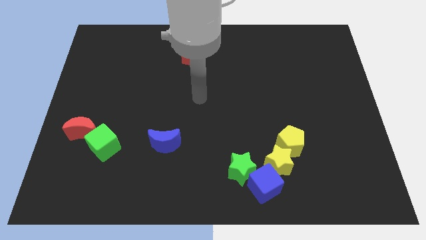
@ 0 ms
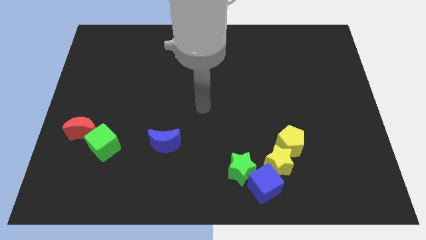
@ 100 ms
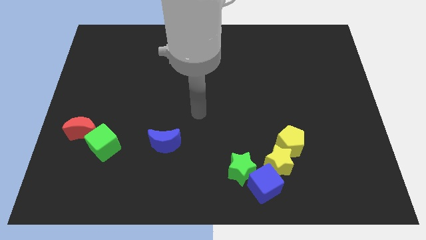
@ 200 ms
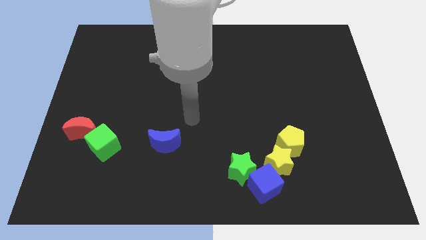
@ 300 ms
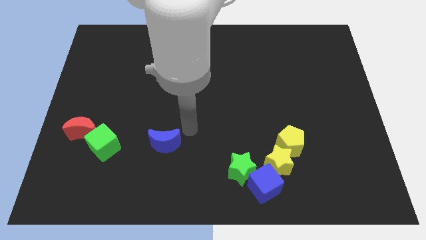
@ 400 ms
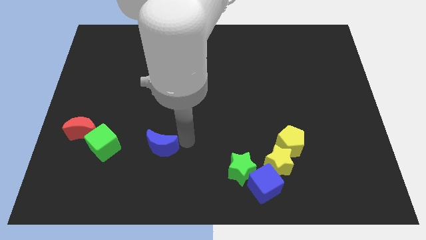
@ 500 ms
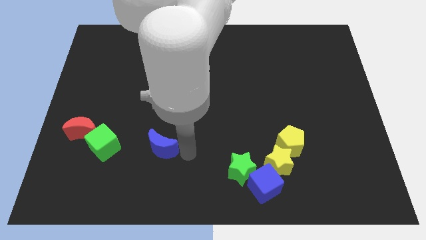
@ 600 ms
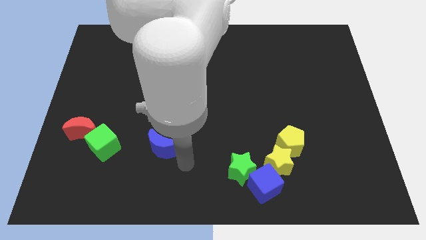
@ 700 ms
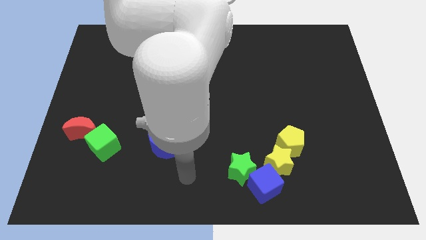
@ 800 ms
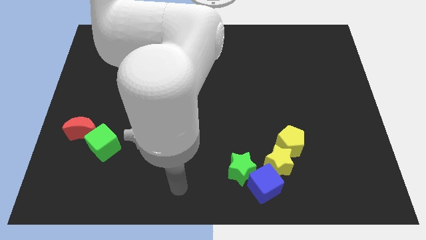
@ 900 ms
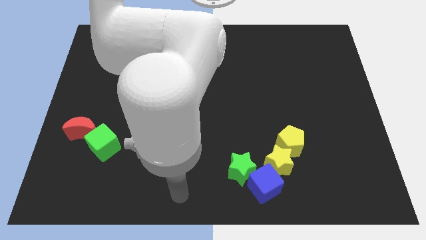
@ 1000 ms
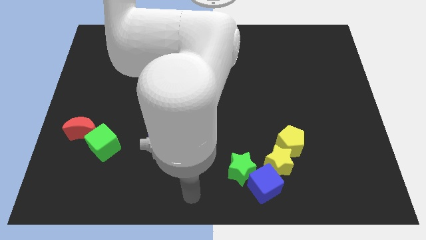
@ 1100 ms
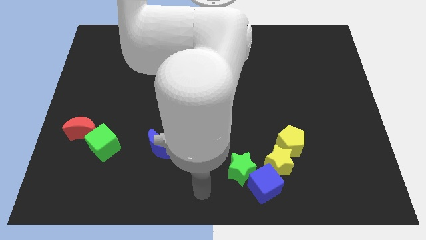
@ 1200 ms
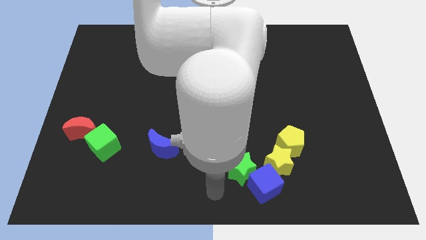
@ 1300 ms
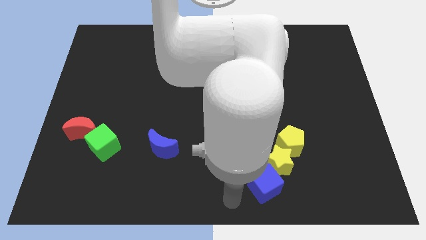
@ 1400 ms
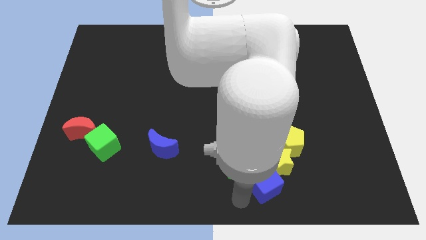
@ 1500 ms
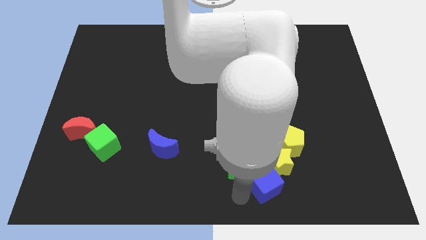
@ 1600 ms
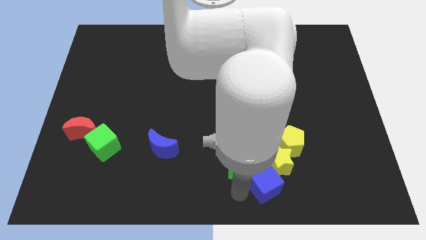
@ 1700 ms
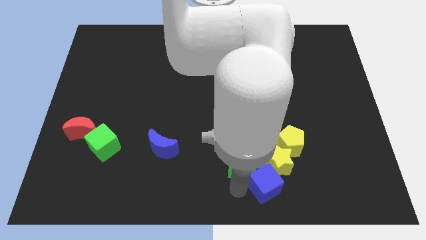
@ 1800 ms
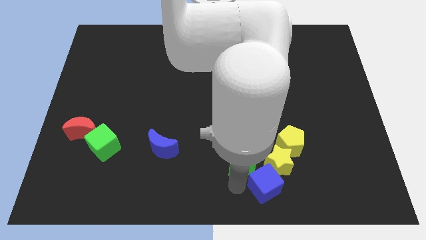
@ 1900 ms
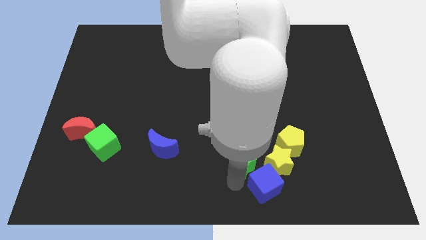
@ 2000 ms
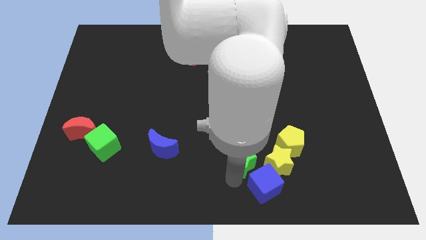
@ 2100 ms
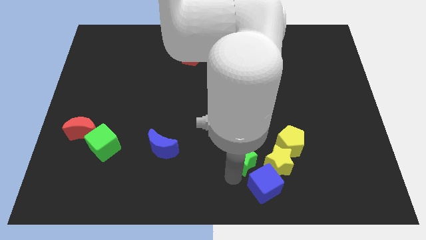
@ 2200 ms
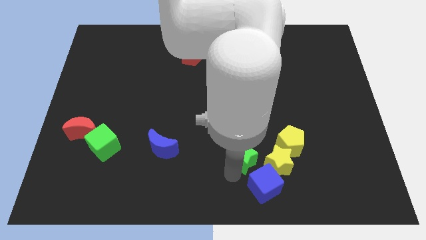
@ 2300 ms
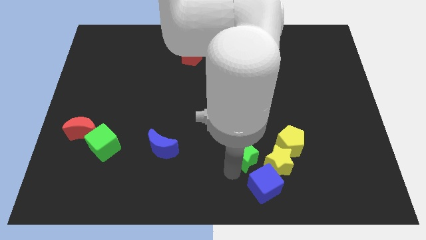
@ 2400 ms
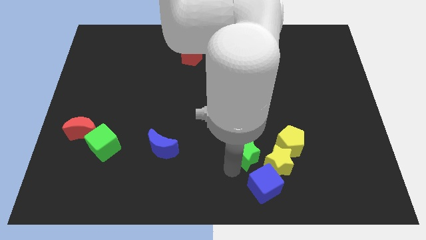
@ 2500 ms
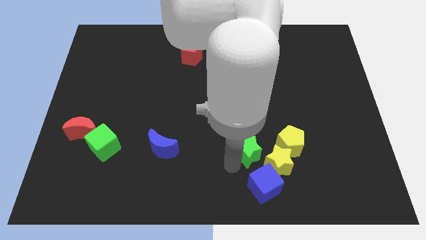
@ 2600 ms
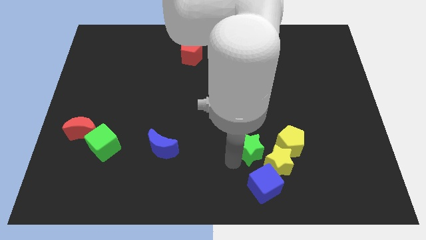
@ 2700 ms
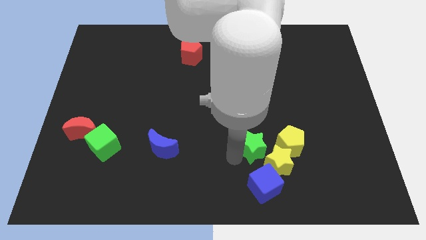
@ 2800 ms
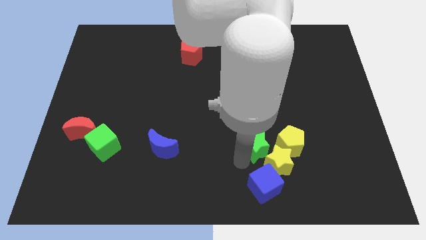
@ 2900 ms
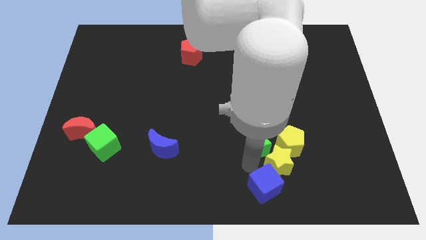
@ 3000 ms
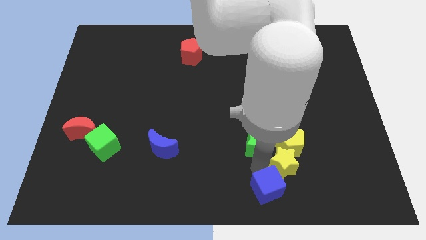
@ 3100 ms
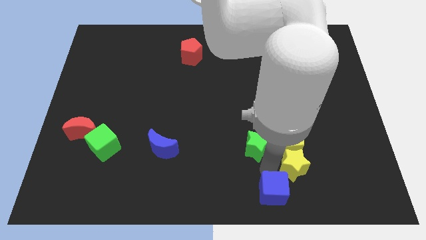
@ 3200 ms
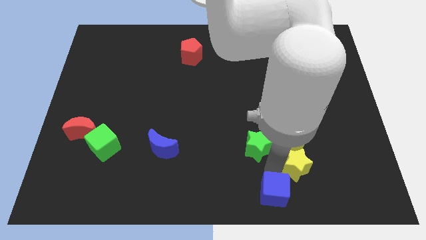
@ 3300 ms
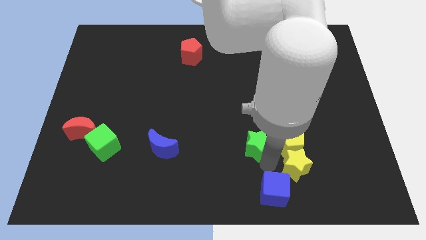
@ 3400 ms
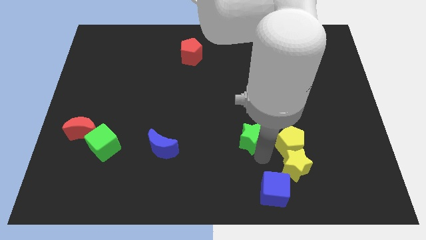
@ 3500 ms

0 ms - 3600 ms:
push the green star a little bit upwards

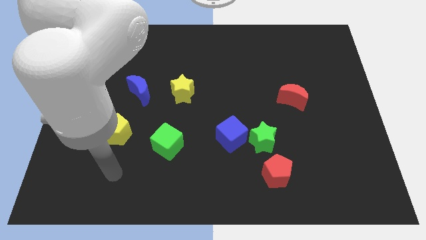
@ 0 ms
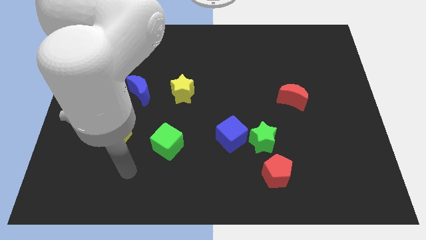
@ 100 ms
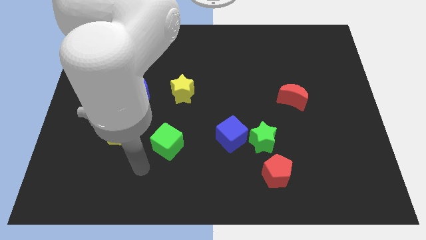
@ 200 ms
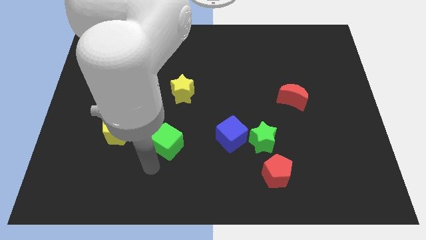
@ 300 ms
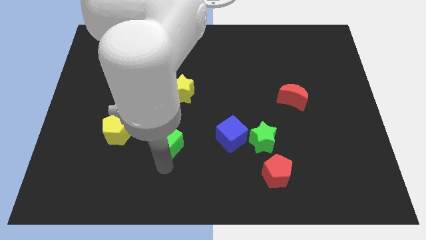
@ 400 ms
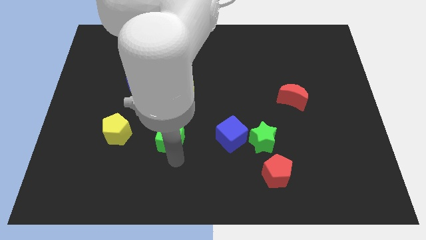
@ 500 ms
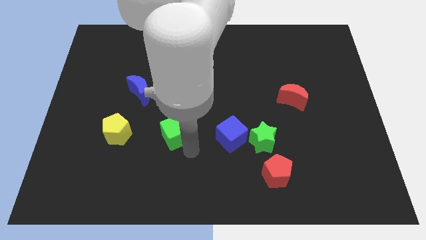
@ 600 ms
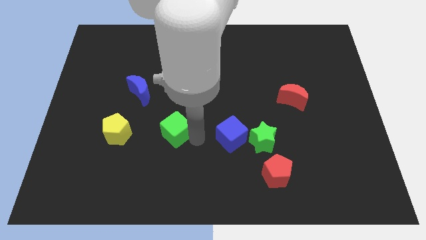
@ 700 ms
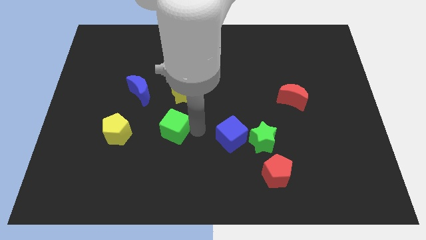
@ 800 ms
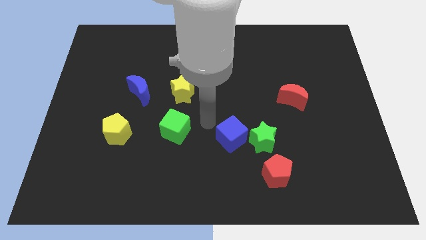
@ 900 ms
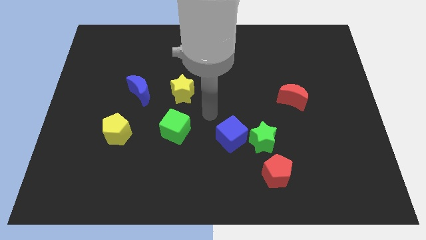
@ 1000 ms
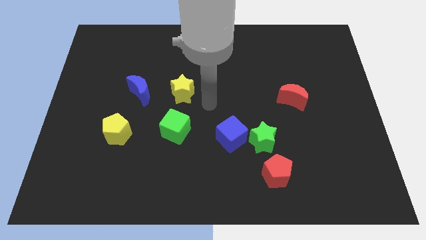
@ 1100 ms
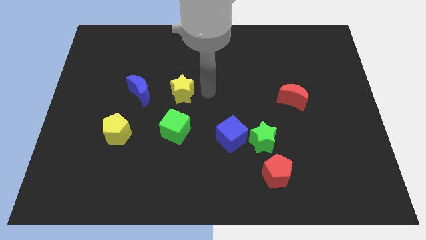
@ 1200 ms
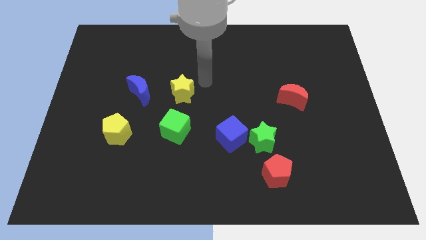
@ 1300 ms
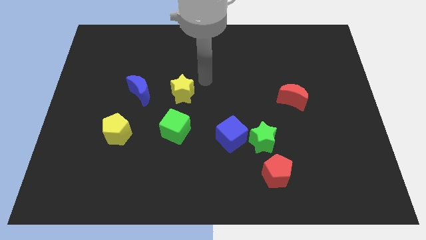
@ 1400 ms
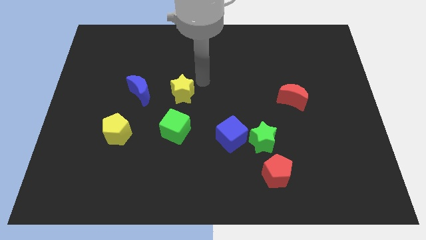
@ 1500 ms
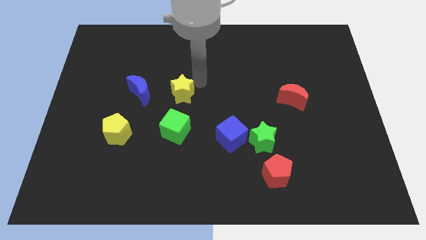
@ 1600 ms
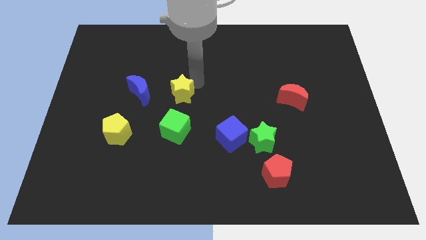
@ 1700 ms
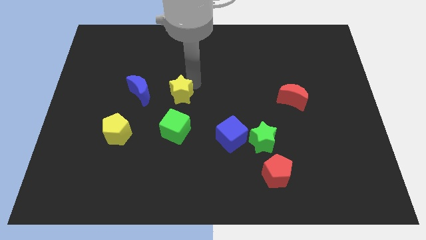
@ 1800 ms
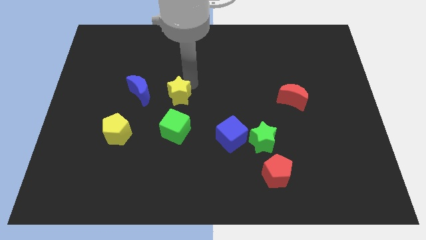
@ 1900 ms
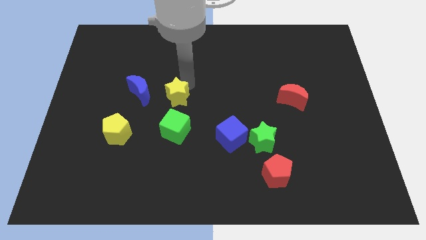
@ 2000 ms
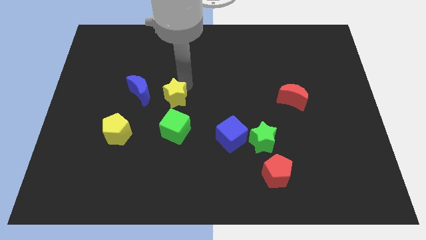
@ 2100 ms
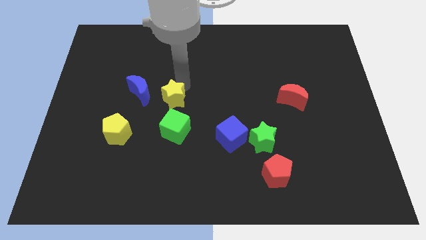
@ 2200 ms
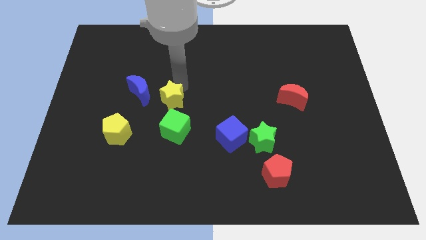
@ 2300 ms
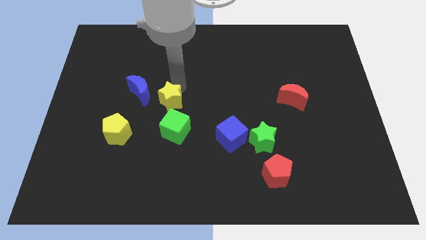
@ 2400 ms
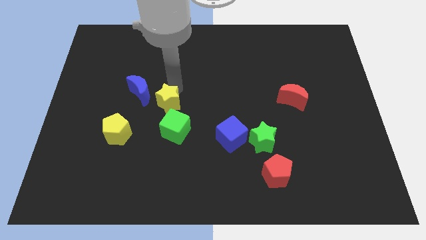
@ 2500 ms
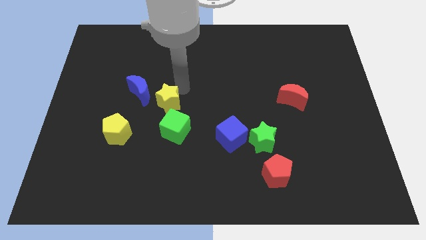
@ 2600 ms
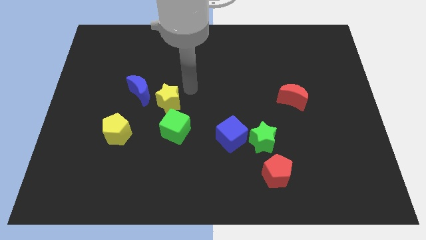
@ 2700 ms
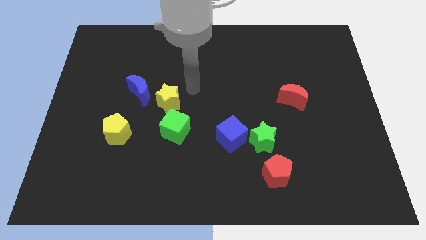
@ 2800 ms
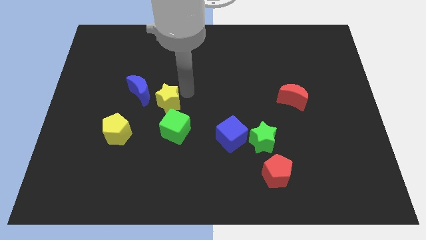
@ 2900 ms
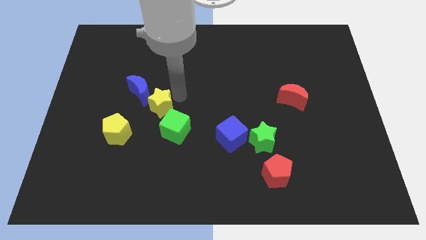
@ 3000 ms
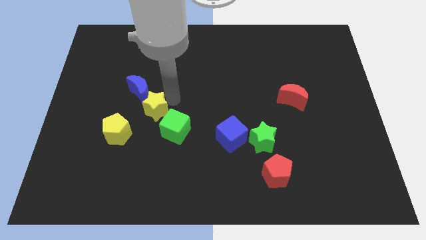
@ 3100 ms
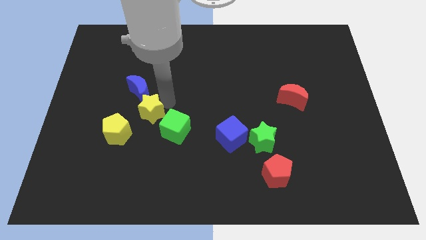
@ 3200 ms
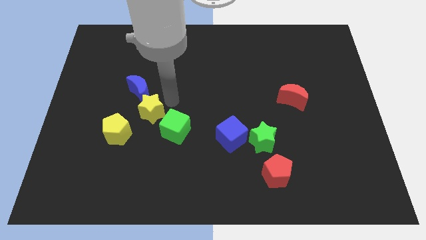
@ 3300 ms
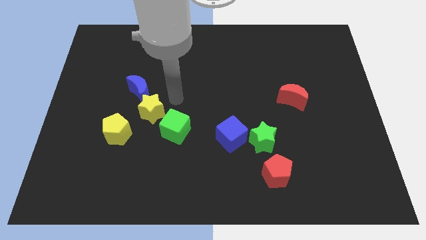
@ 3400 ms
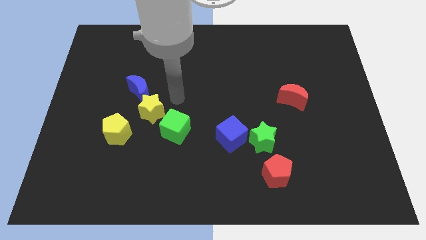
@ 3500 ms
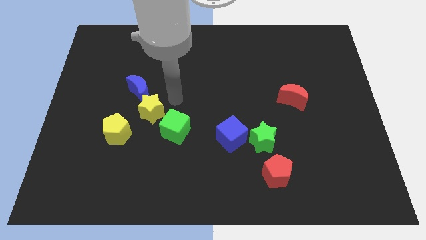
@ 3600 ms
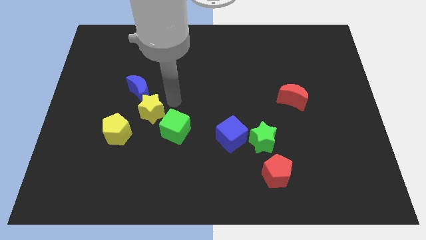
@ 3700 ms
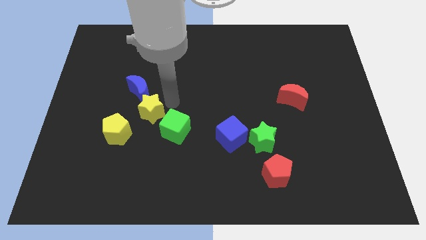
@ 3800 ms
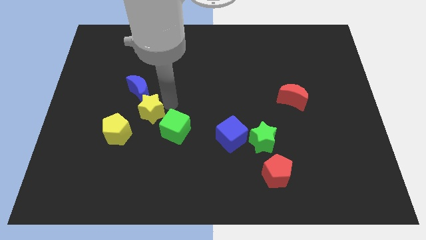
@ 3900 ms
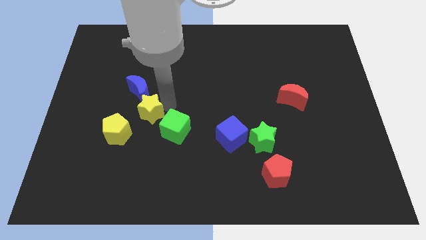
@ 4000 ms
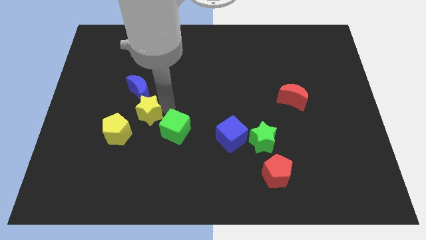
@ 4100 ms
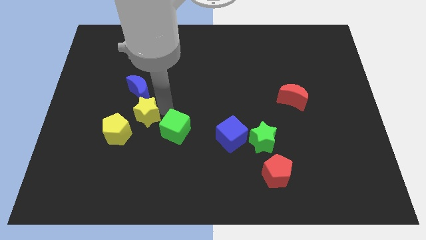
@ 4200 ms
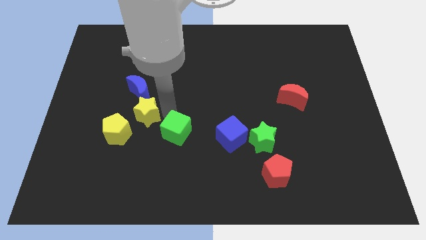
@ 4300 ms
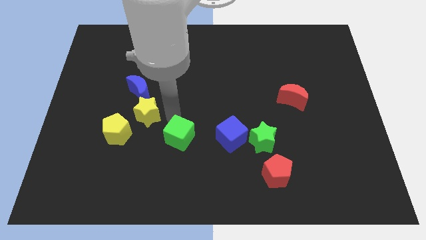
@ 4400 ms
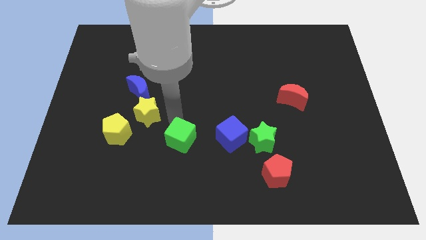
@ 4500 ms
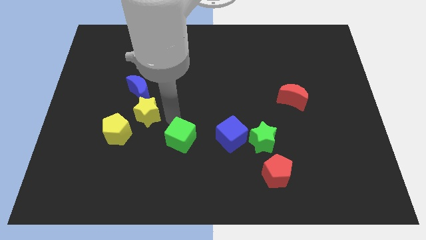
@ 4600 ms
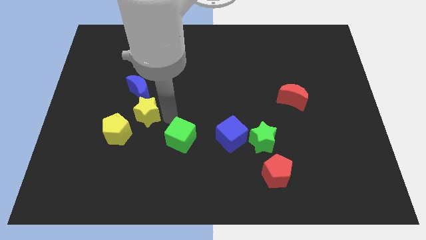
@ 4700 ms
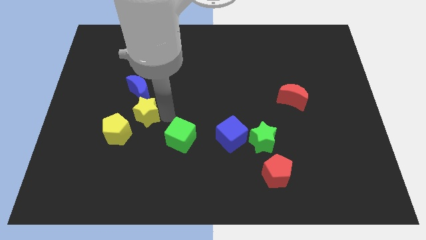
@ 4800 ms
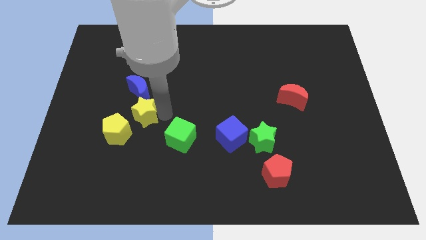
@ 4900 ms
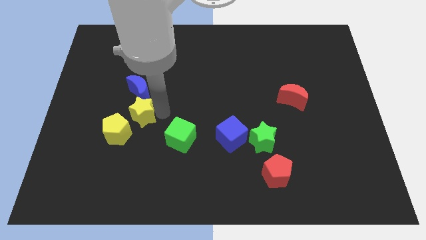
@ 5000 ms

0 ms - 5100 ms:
move the yellow star a bit to the left
